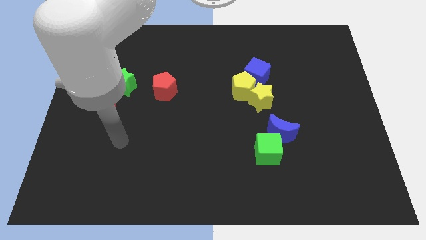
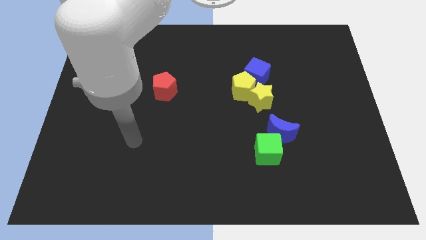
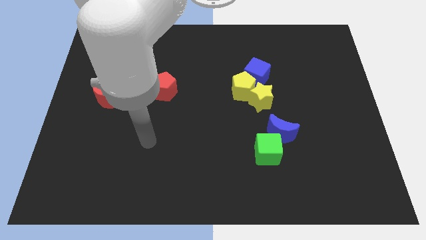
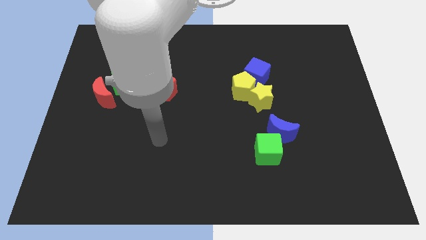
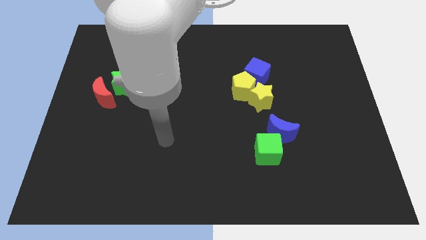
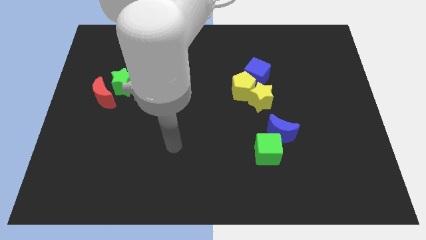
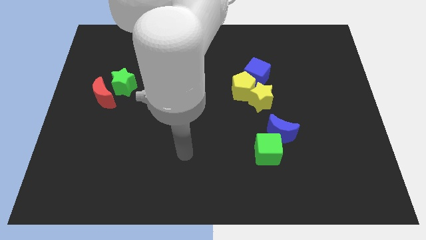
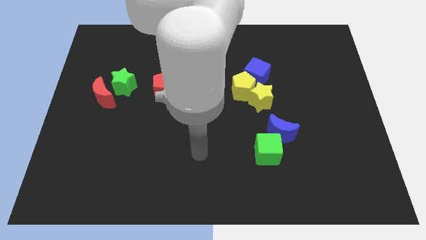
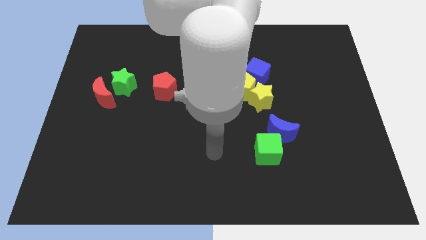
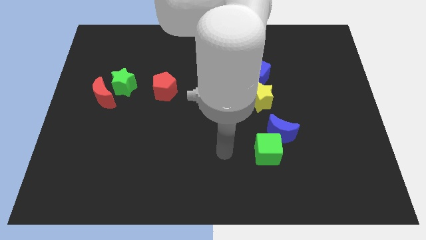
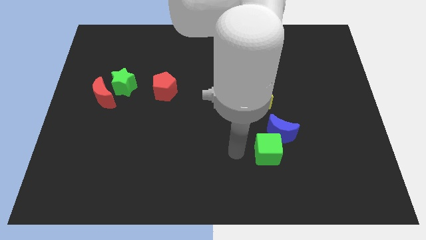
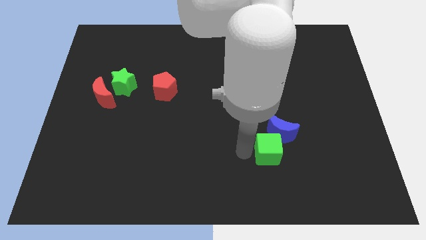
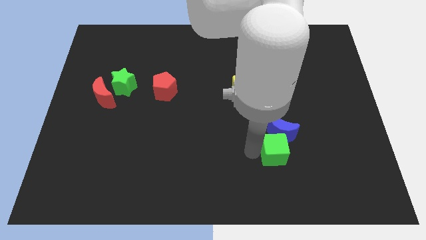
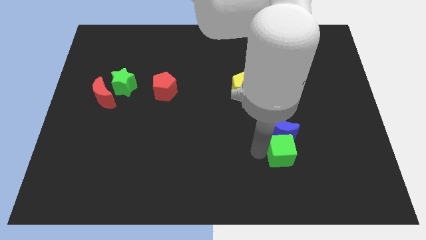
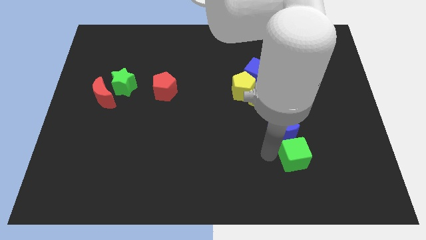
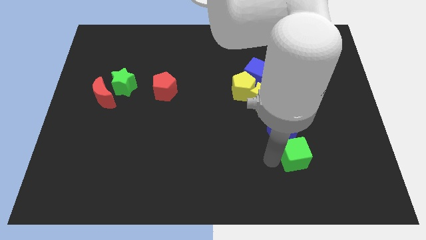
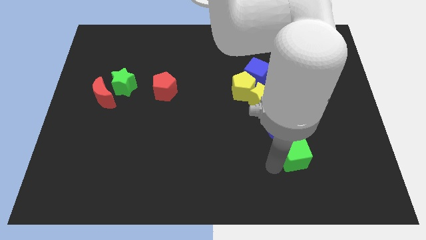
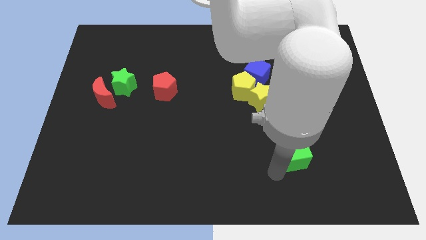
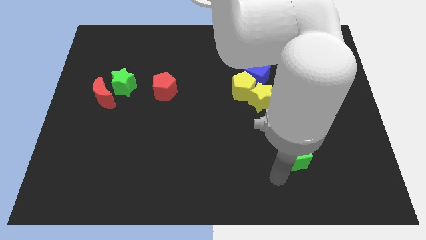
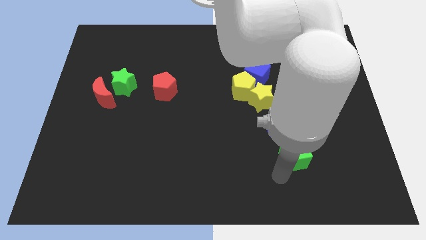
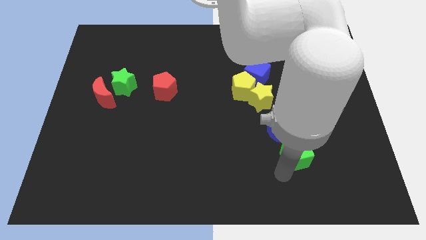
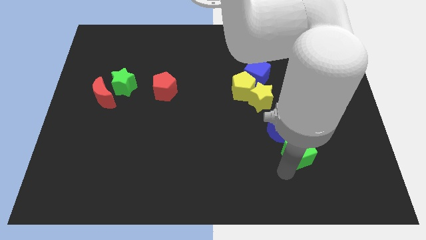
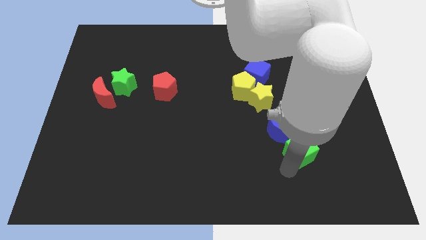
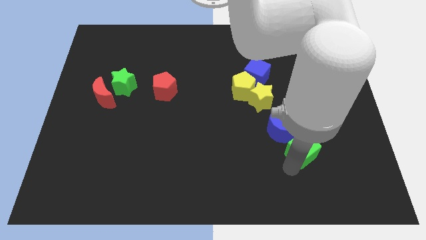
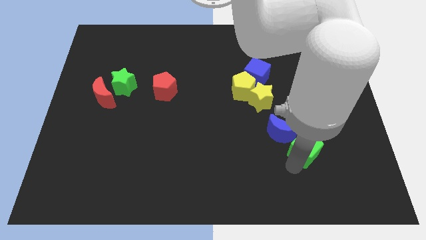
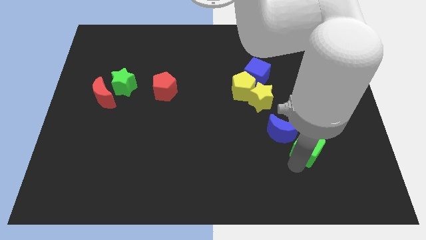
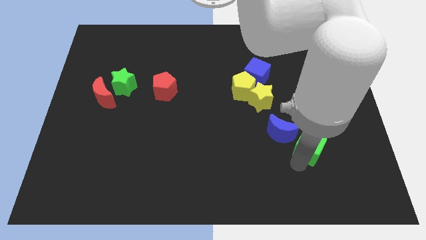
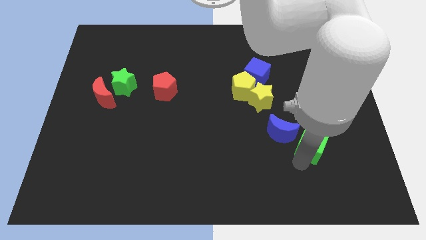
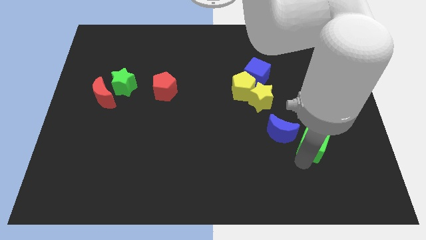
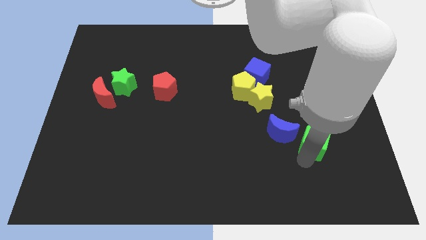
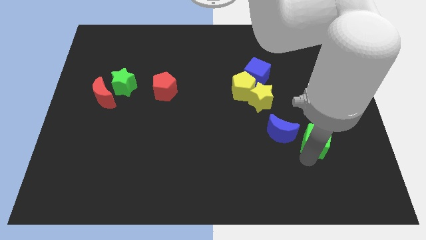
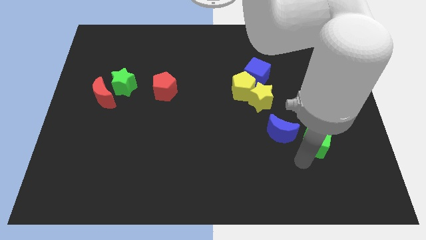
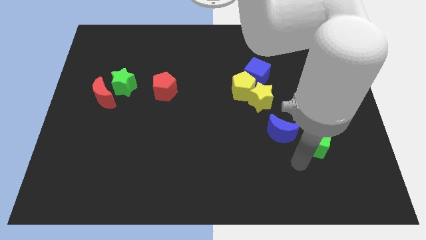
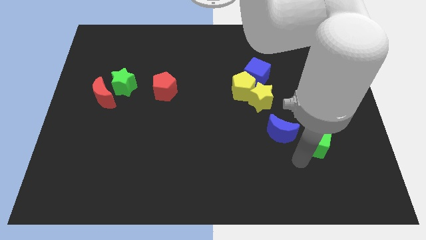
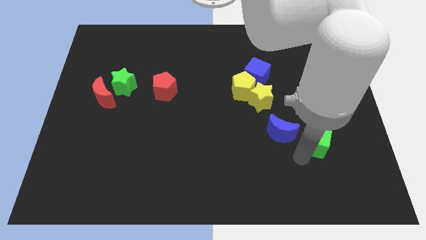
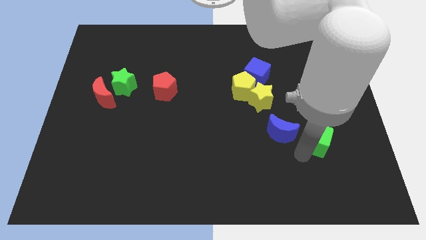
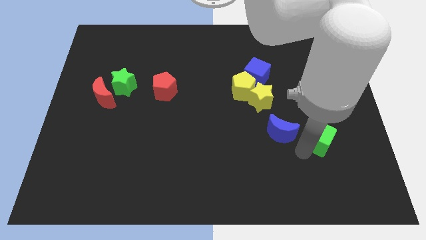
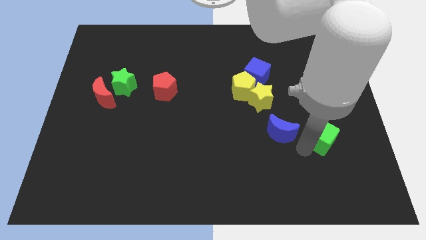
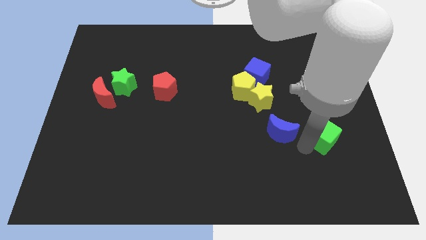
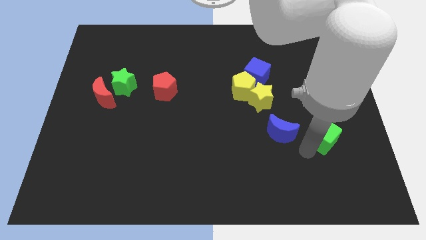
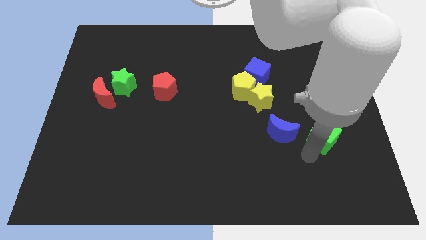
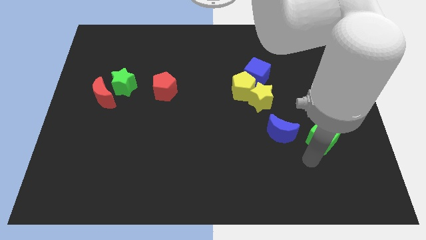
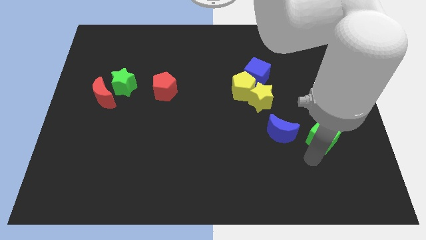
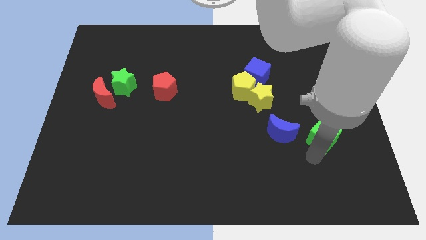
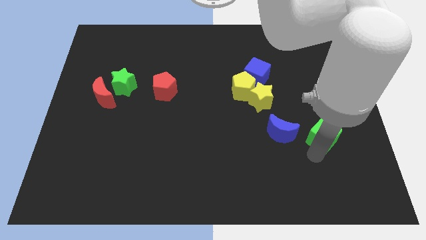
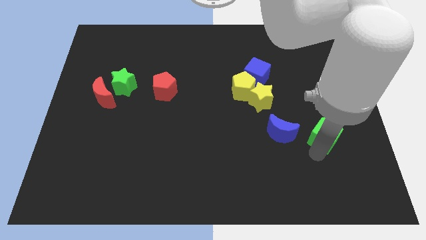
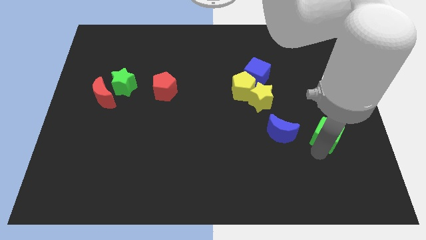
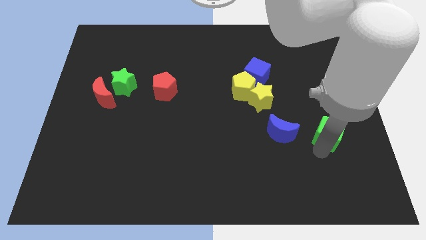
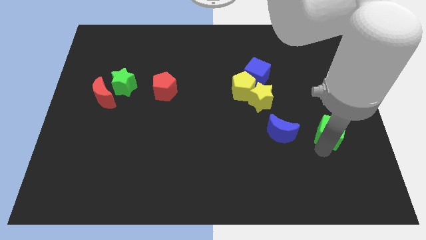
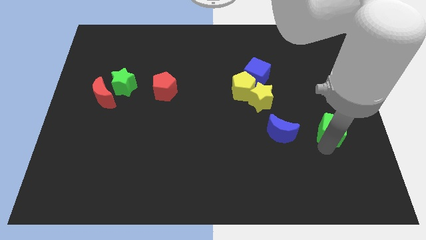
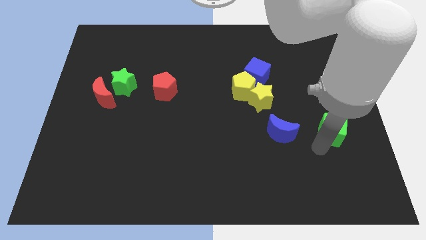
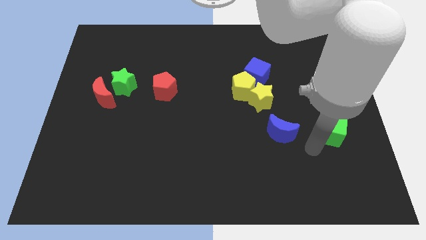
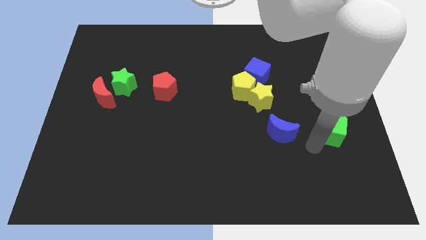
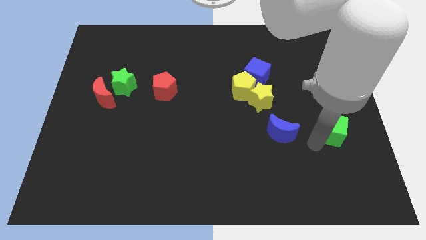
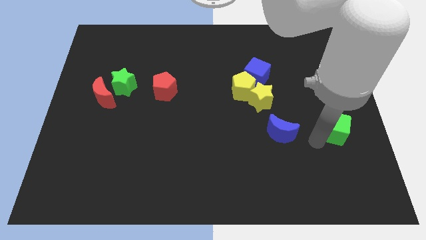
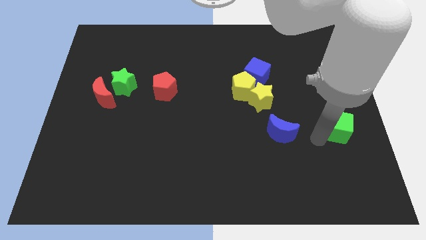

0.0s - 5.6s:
move the green cube to the right side of the board
